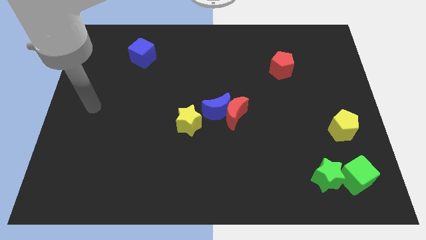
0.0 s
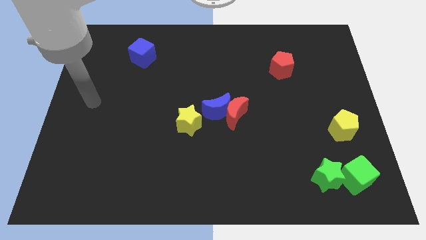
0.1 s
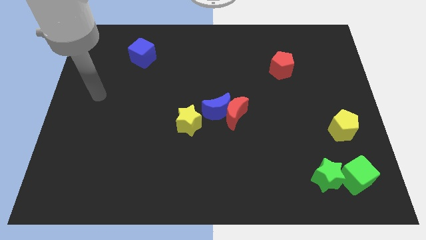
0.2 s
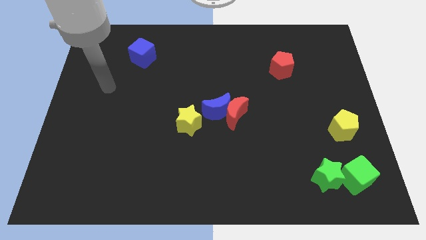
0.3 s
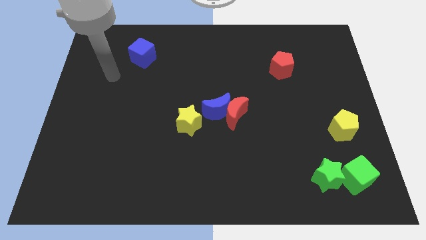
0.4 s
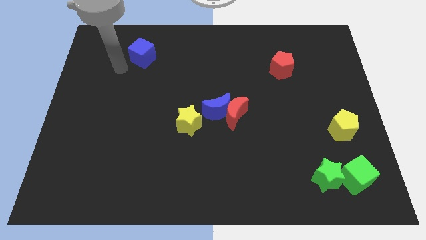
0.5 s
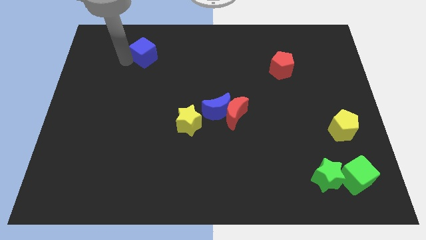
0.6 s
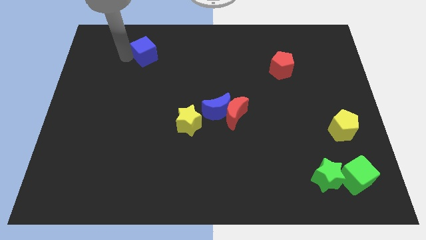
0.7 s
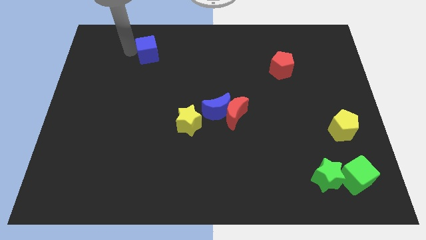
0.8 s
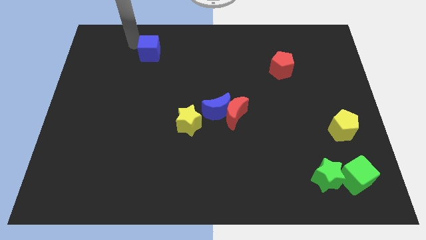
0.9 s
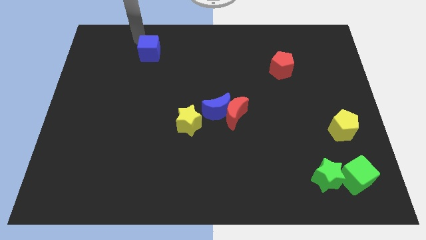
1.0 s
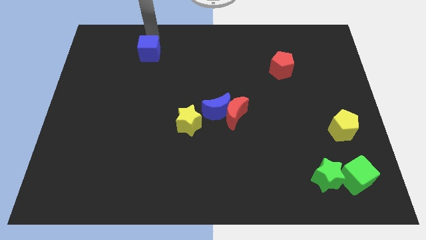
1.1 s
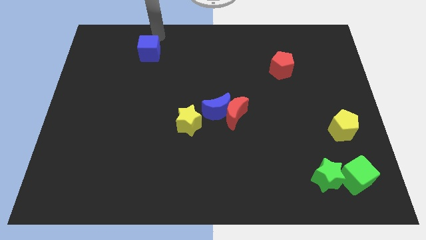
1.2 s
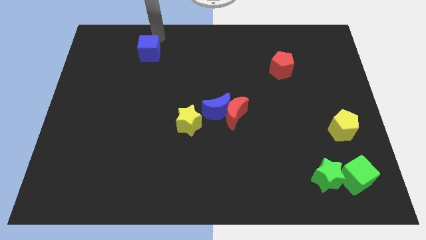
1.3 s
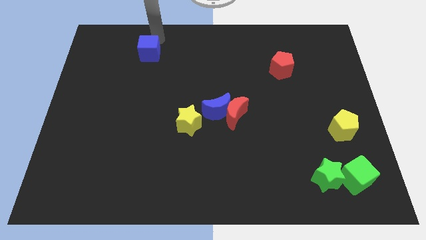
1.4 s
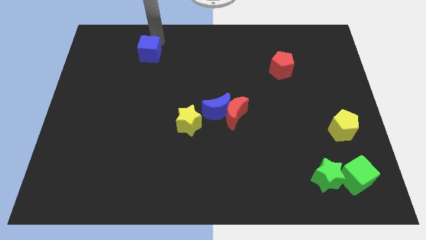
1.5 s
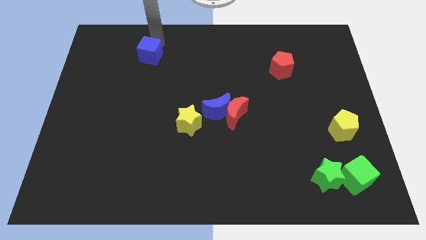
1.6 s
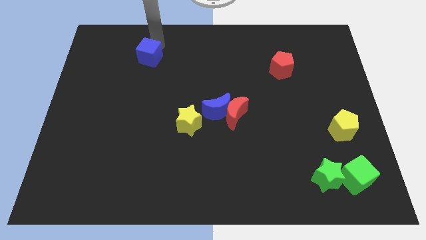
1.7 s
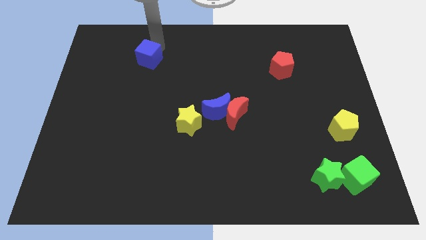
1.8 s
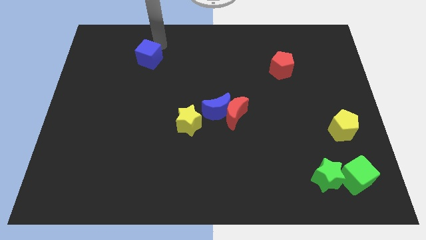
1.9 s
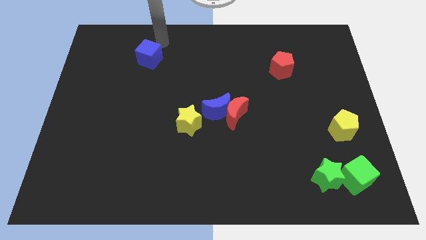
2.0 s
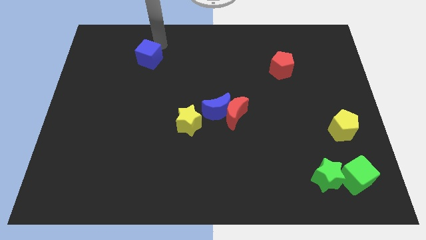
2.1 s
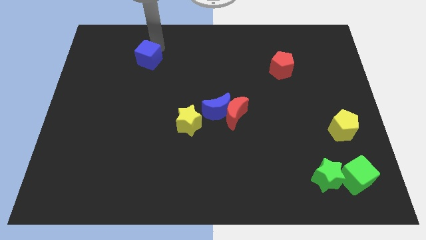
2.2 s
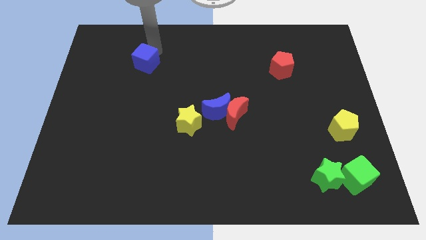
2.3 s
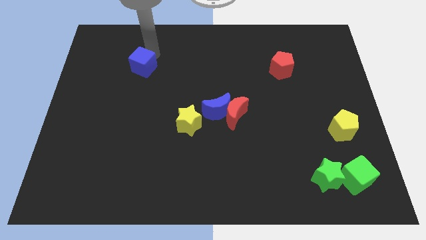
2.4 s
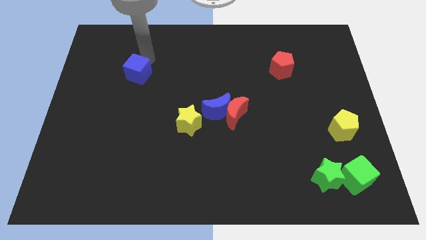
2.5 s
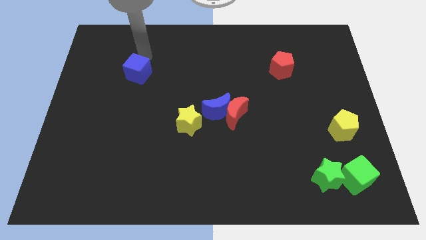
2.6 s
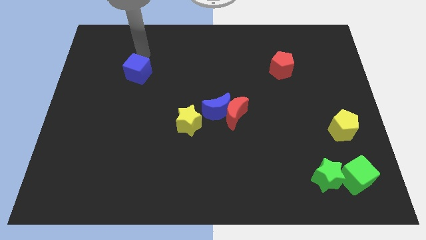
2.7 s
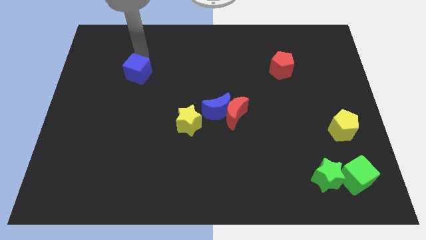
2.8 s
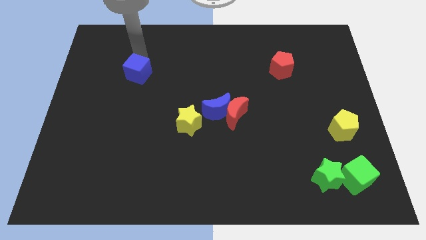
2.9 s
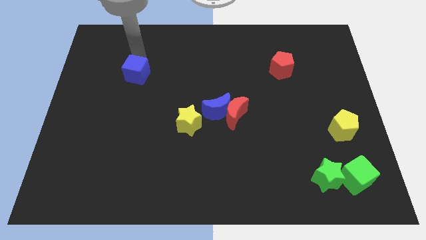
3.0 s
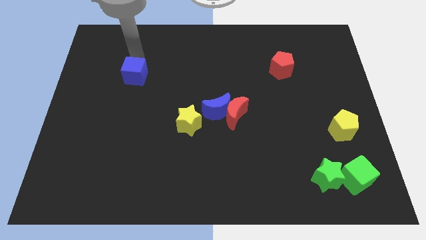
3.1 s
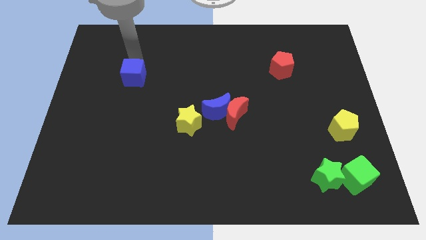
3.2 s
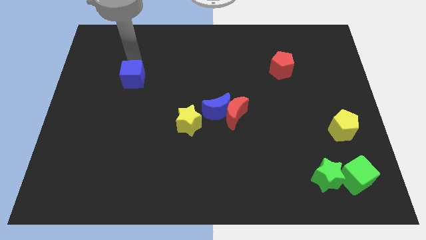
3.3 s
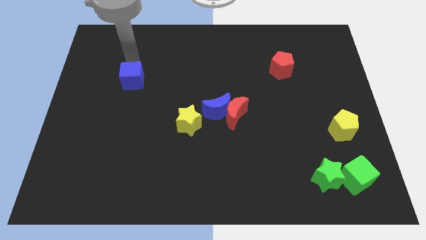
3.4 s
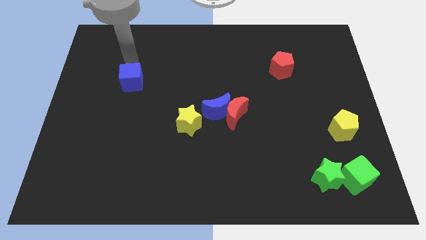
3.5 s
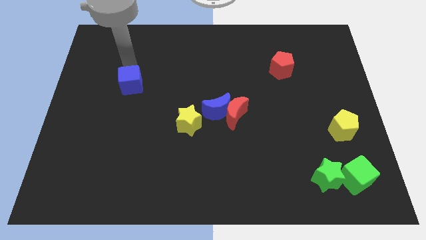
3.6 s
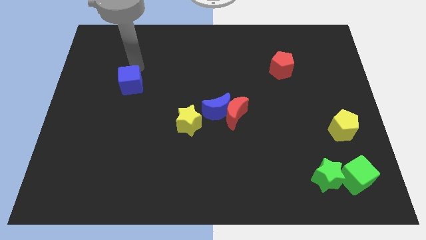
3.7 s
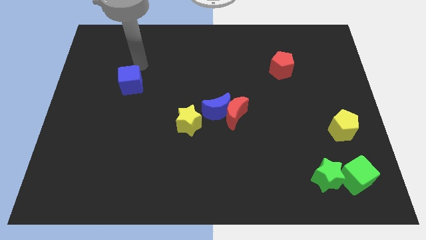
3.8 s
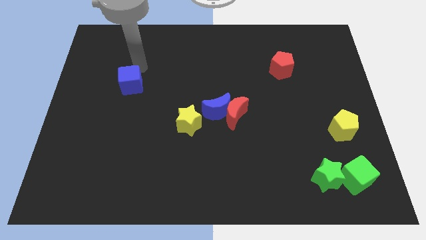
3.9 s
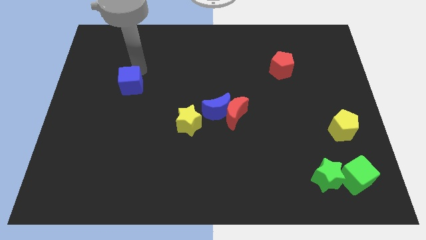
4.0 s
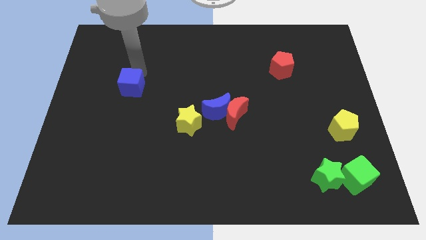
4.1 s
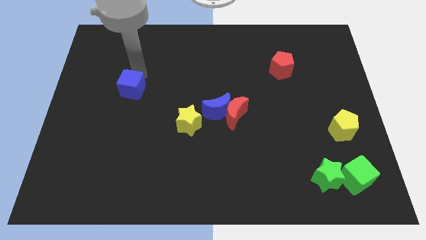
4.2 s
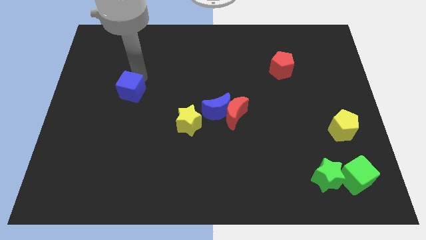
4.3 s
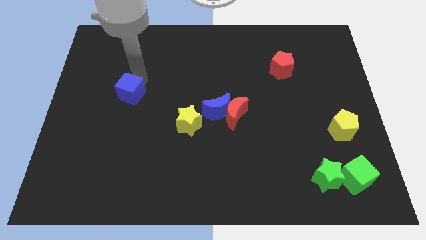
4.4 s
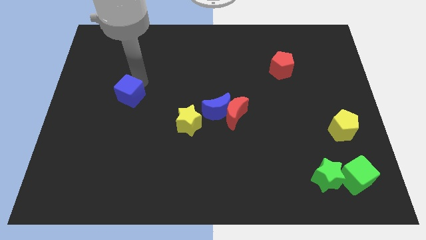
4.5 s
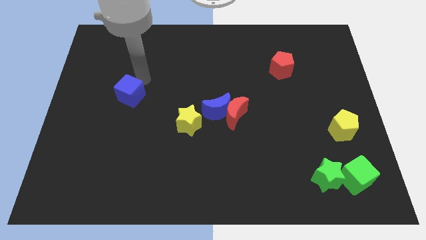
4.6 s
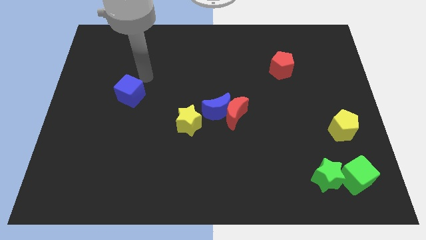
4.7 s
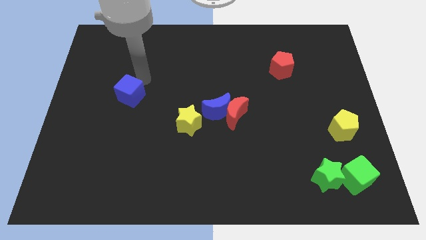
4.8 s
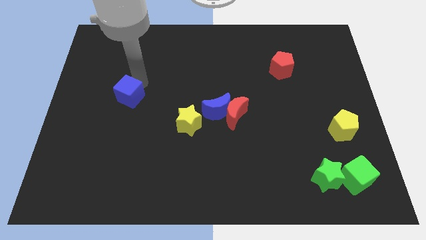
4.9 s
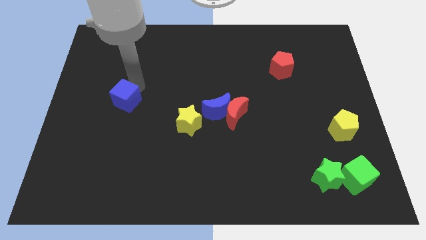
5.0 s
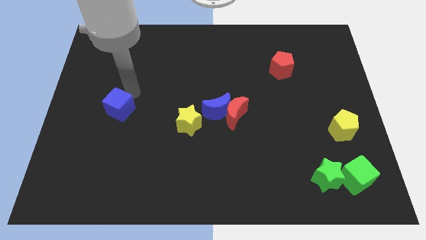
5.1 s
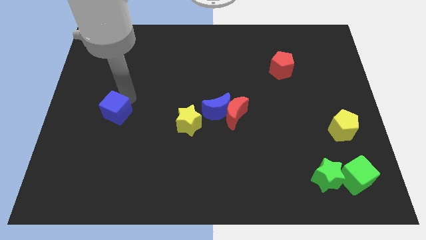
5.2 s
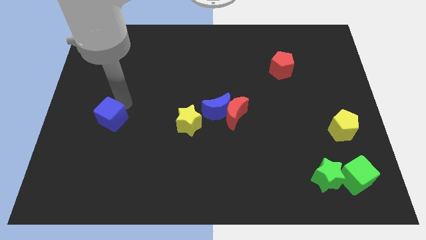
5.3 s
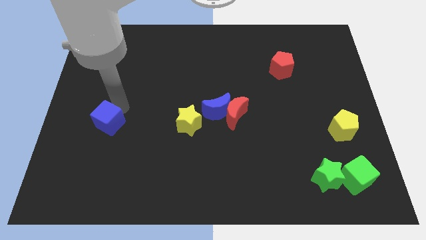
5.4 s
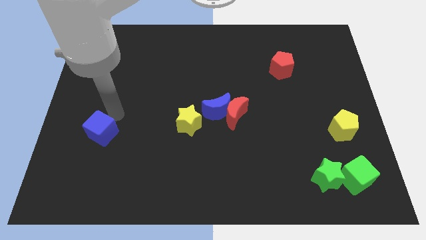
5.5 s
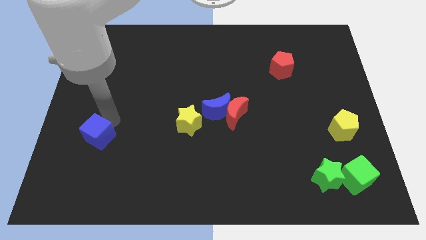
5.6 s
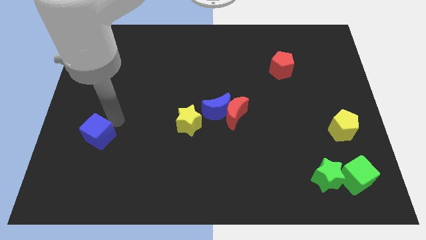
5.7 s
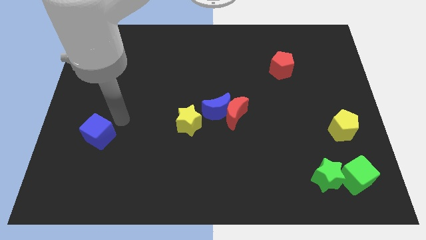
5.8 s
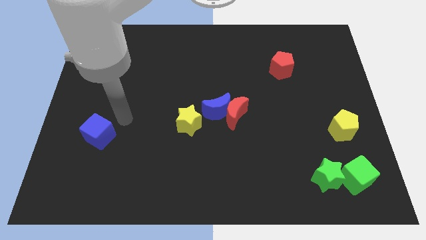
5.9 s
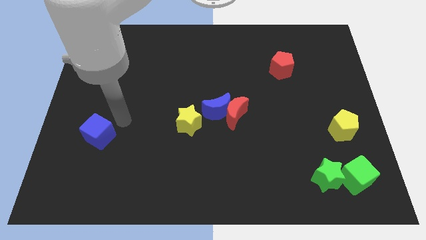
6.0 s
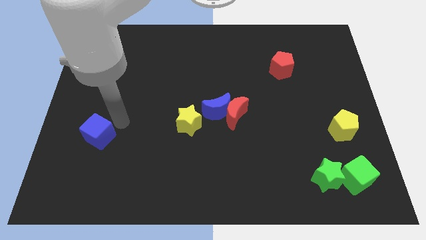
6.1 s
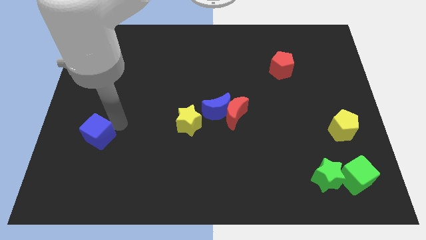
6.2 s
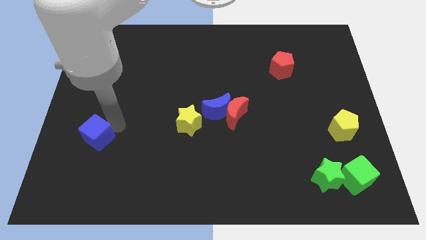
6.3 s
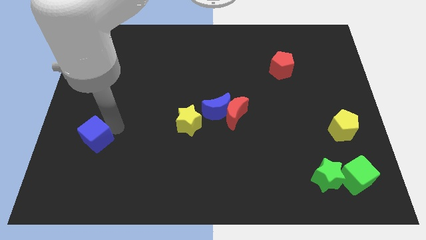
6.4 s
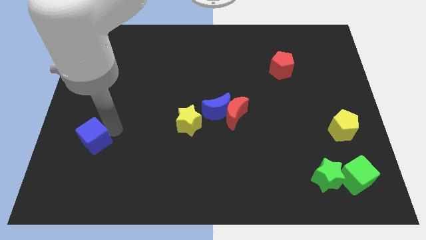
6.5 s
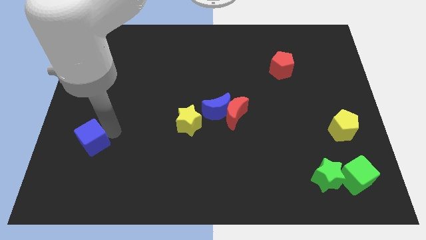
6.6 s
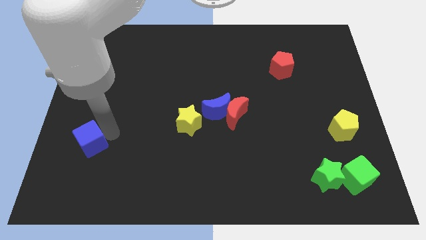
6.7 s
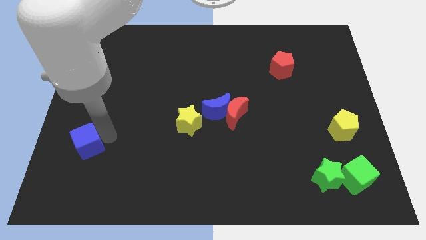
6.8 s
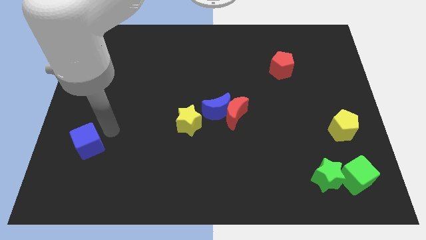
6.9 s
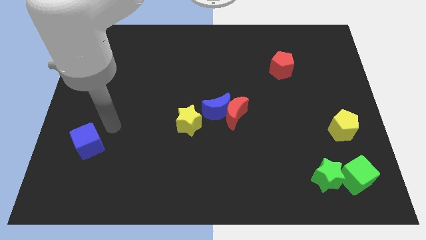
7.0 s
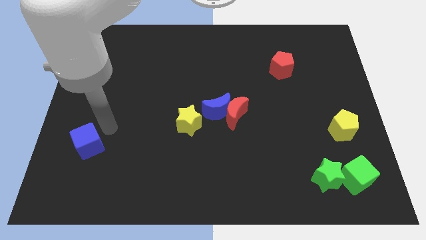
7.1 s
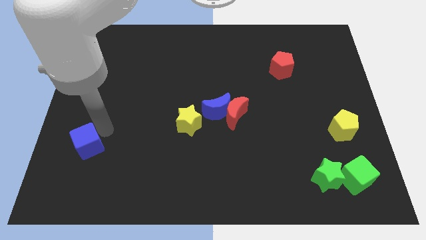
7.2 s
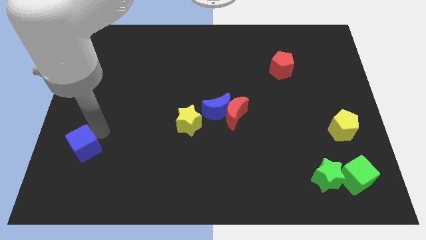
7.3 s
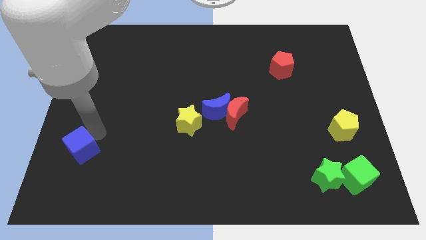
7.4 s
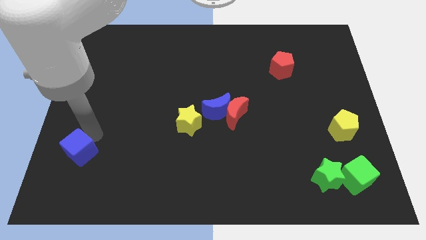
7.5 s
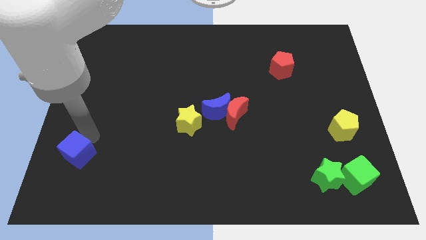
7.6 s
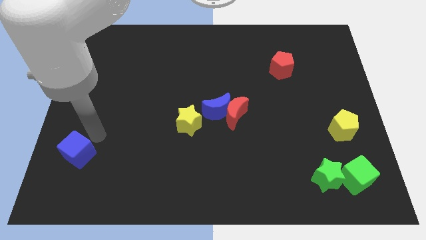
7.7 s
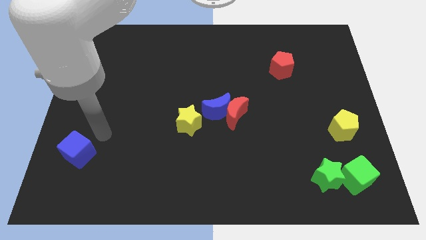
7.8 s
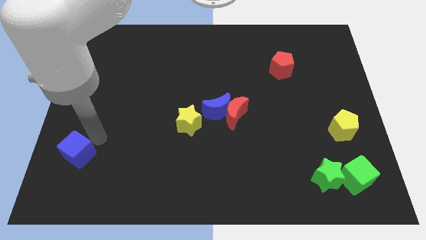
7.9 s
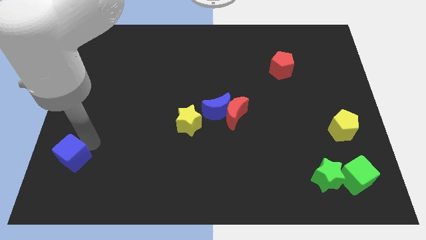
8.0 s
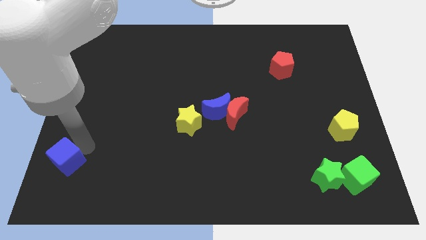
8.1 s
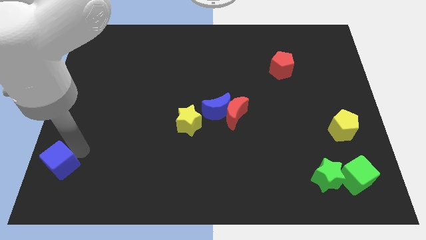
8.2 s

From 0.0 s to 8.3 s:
move the blue cube to the bottom left corner
